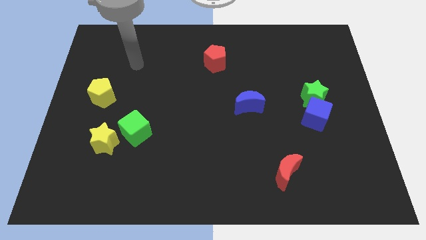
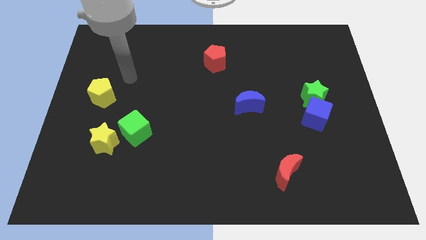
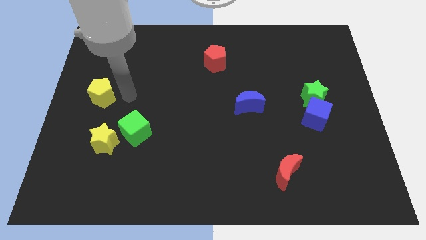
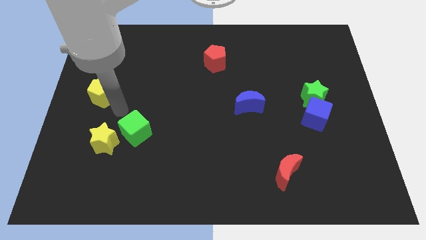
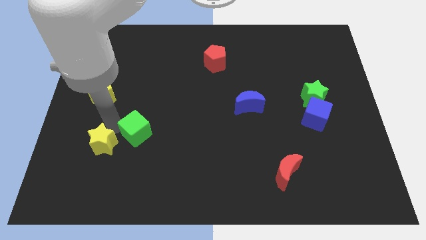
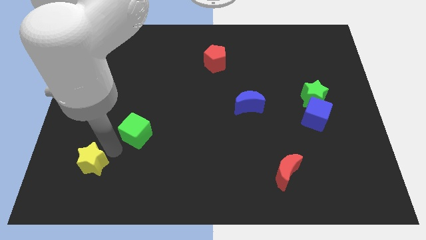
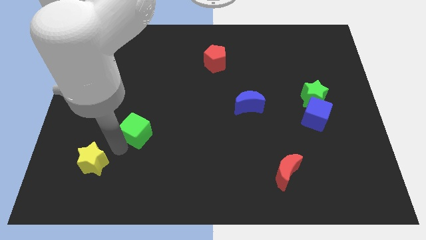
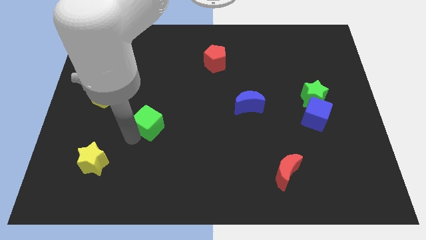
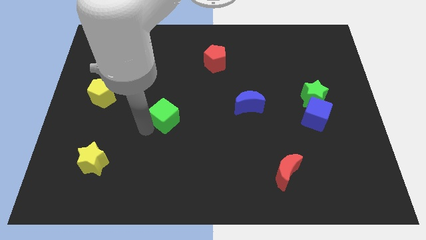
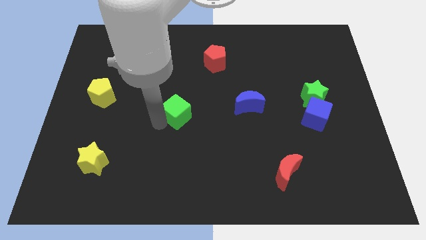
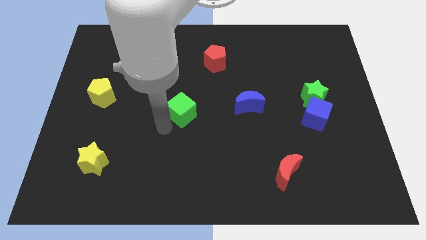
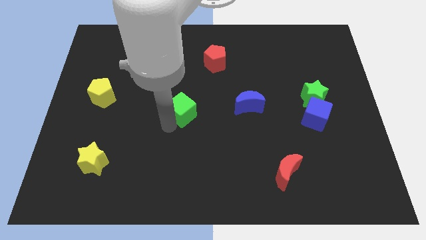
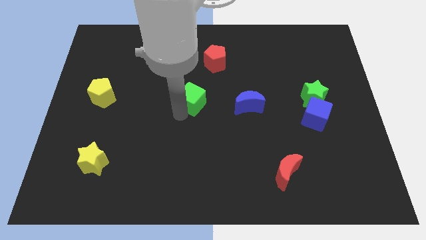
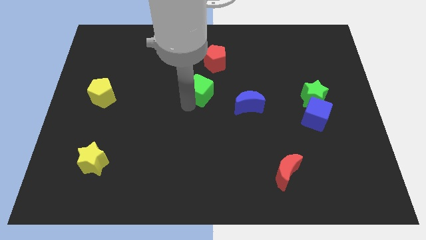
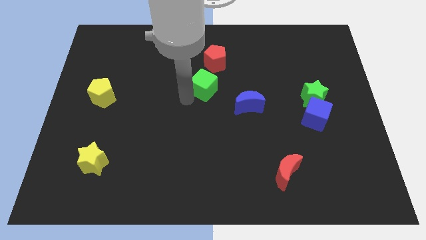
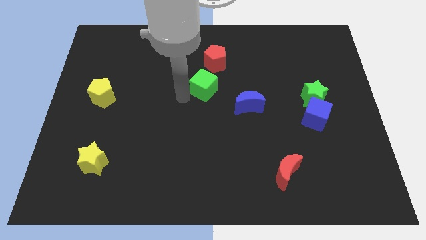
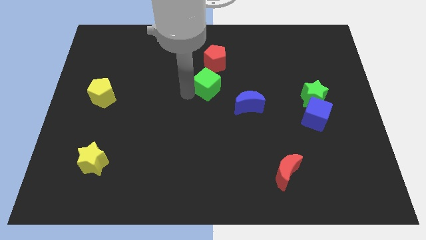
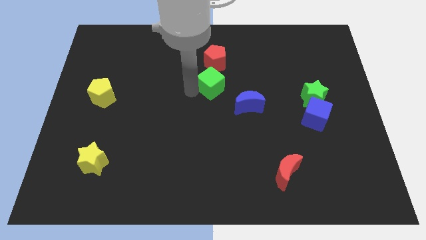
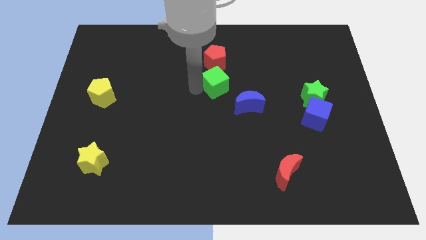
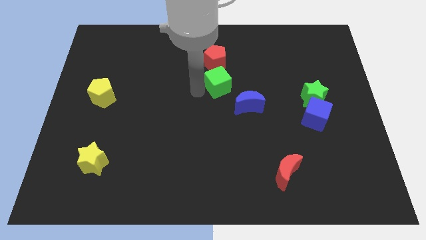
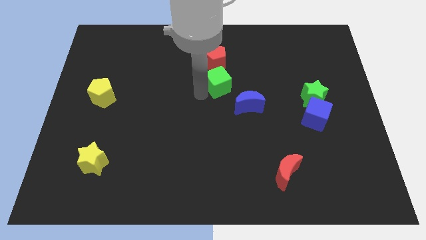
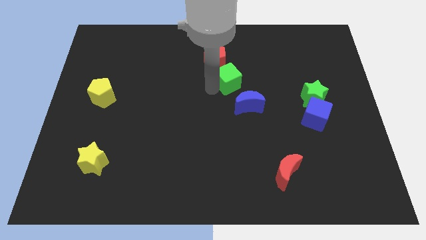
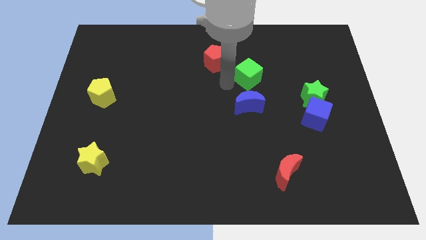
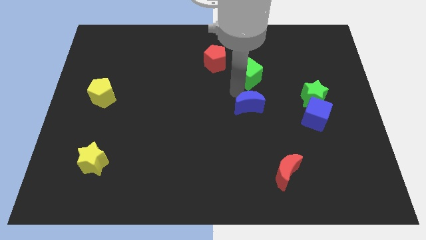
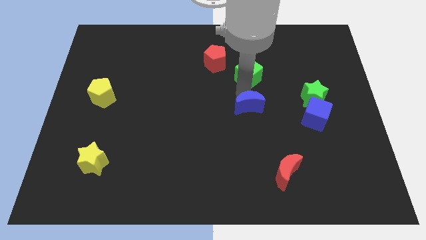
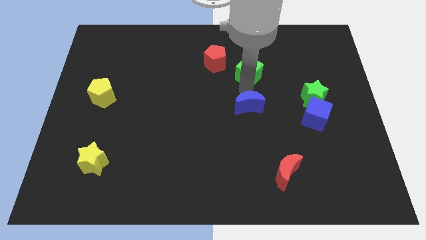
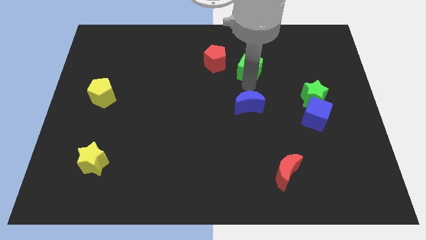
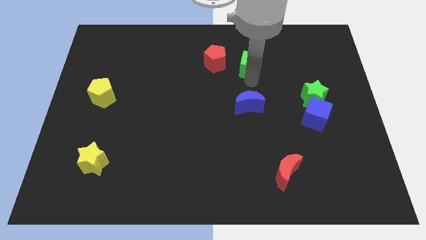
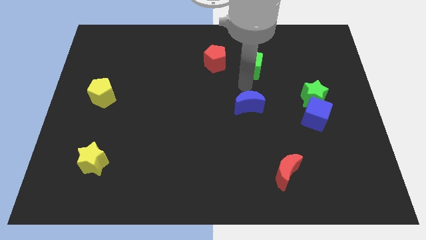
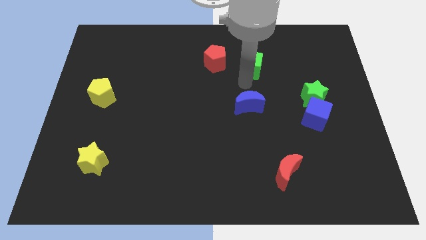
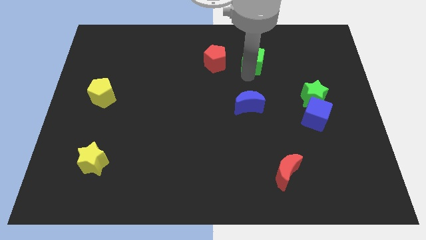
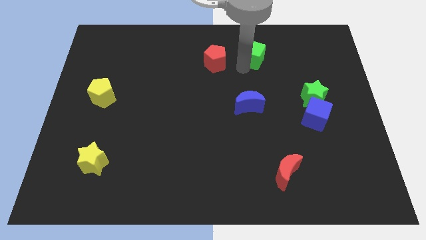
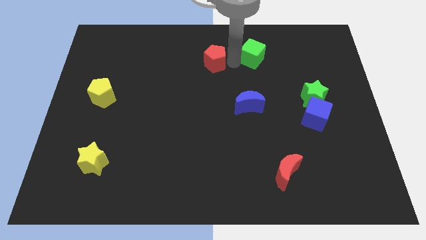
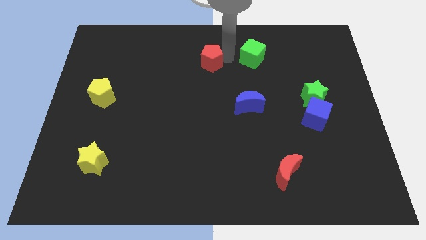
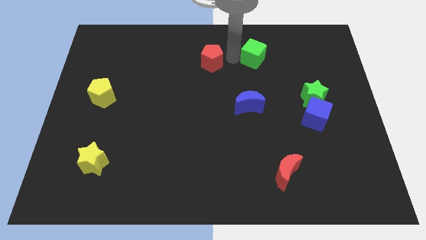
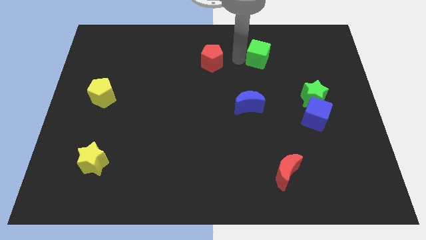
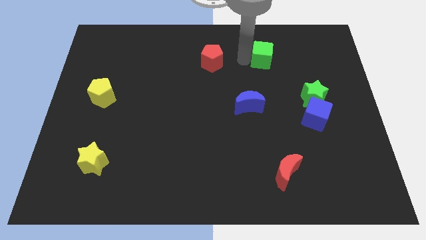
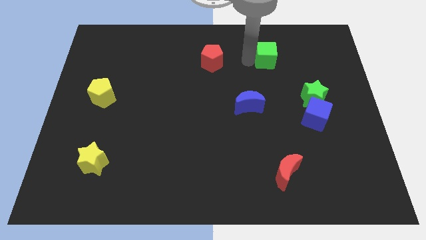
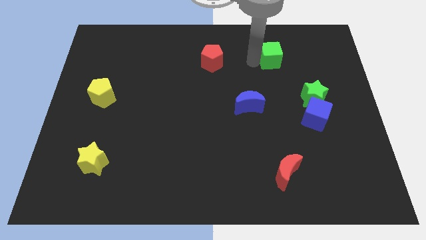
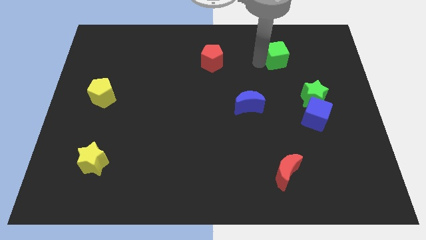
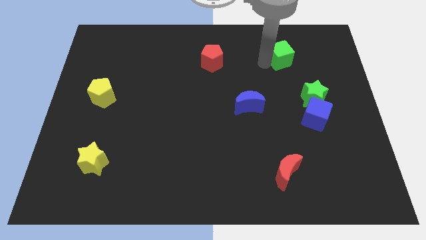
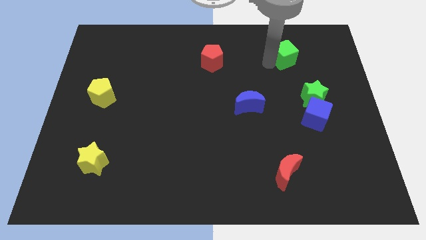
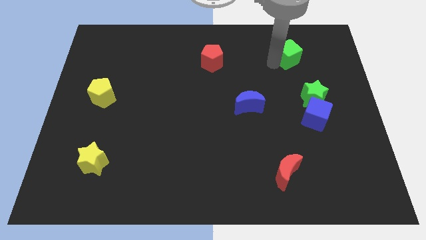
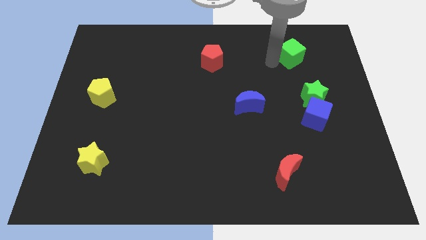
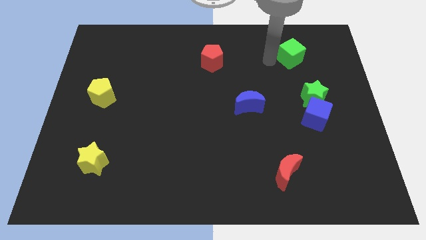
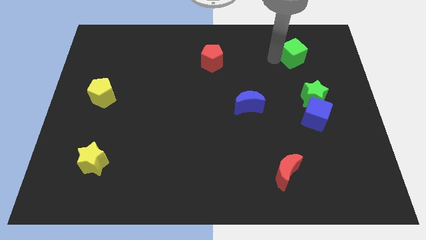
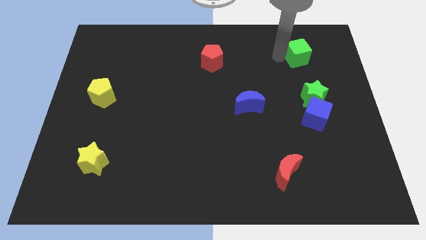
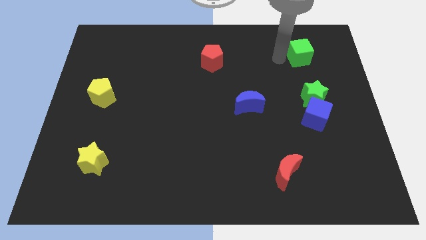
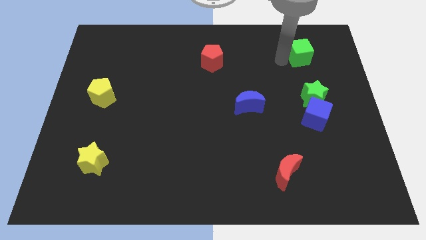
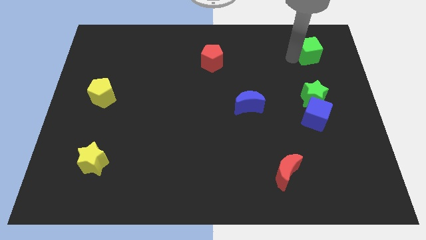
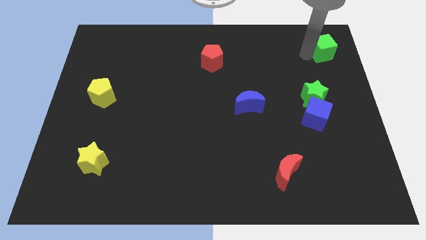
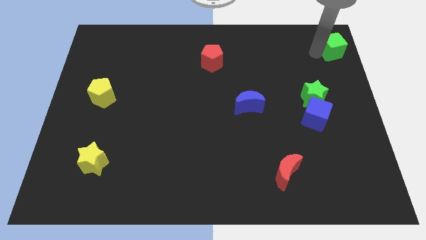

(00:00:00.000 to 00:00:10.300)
push the green cube to the top right corner

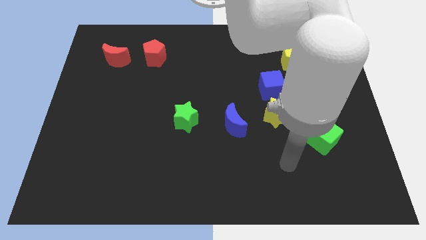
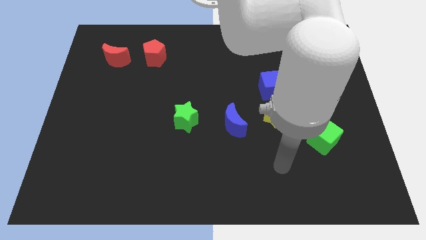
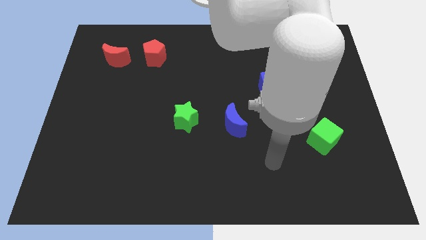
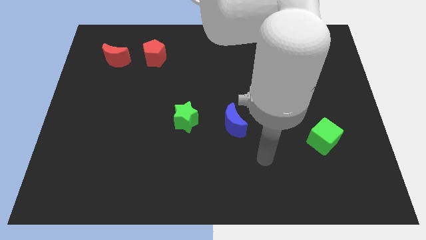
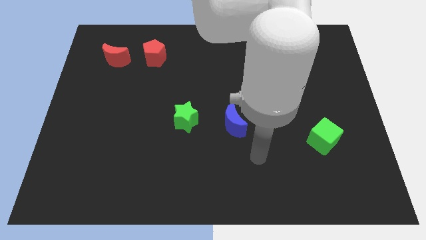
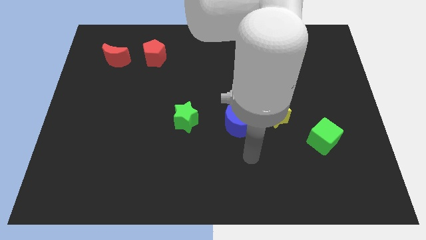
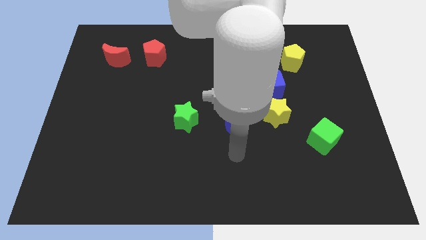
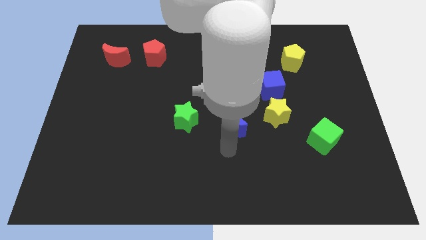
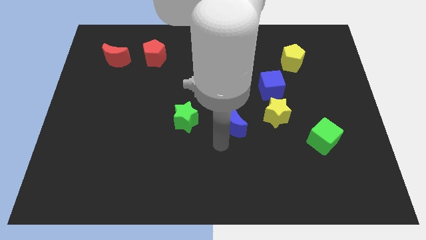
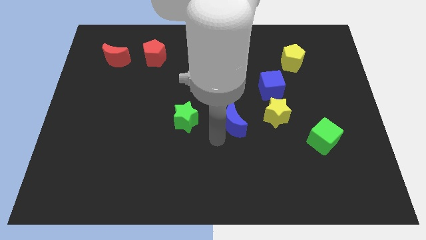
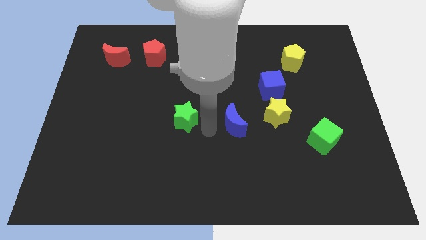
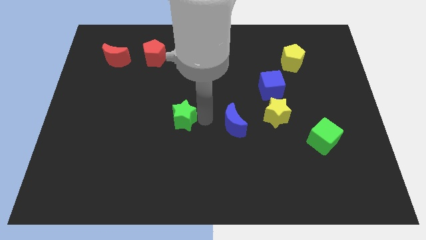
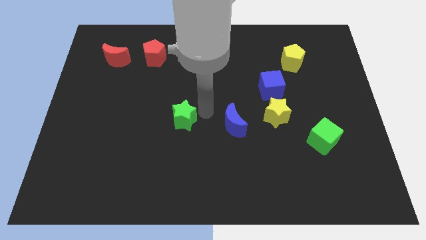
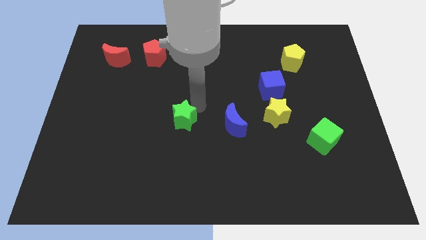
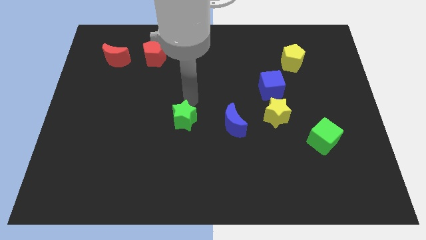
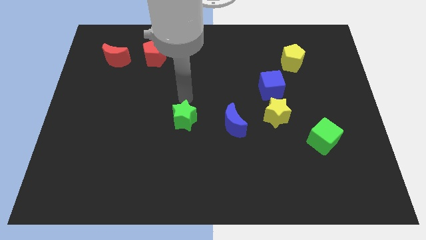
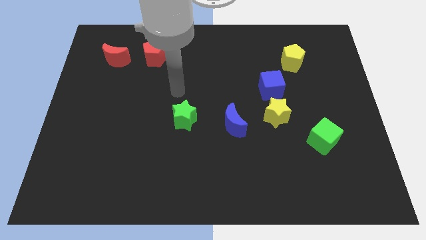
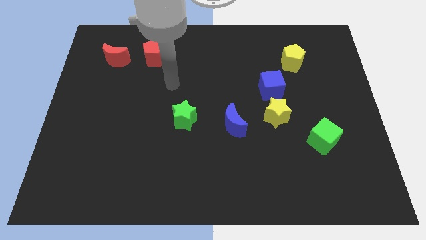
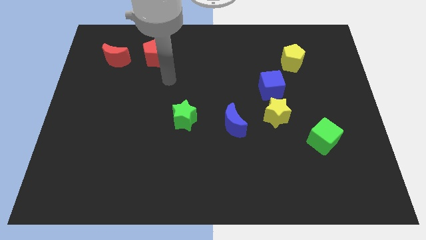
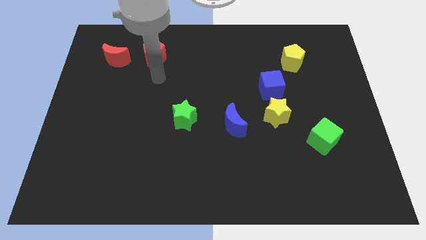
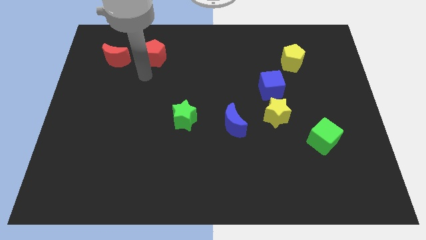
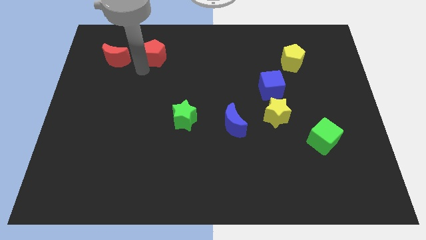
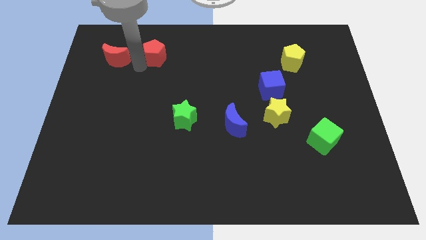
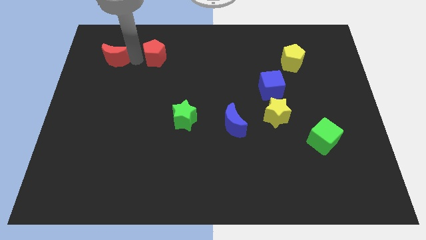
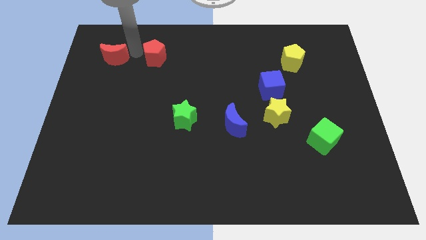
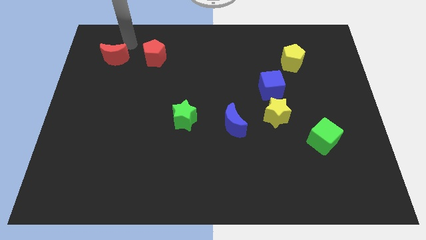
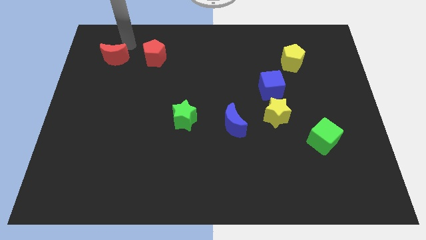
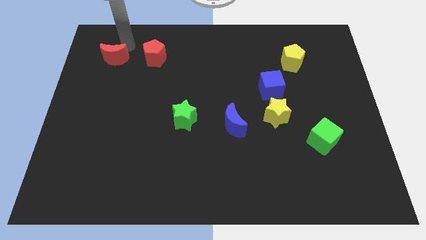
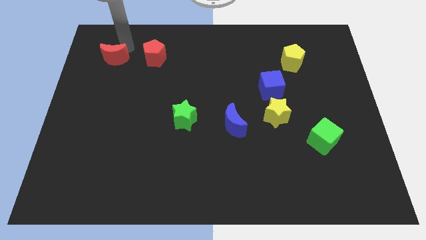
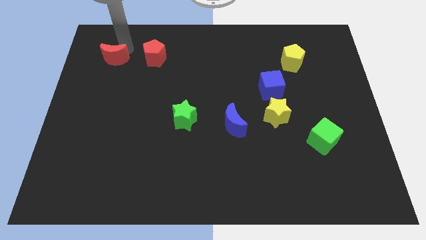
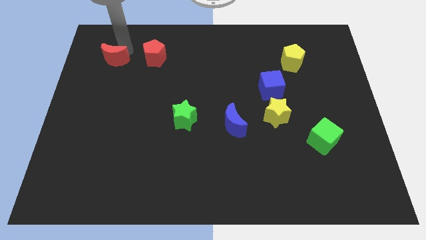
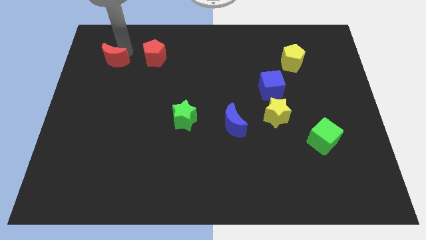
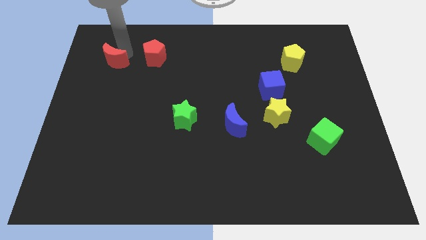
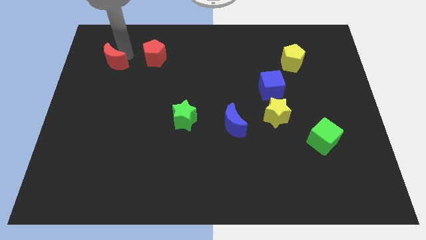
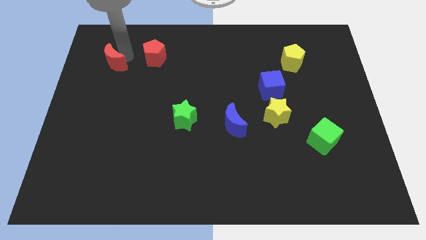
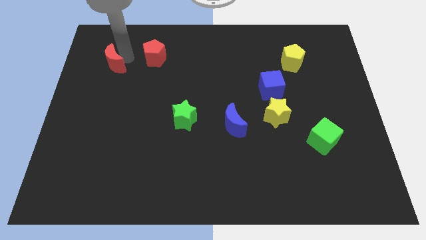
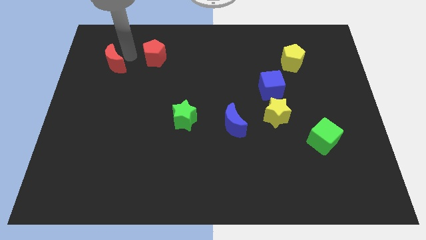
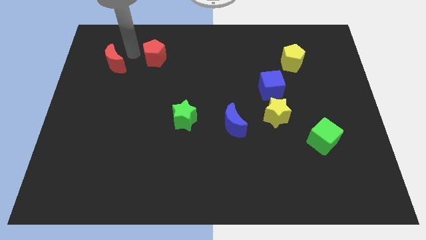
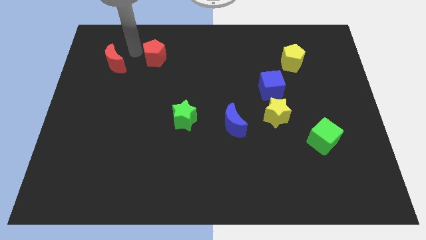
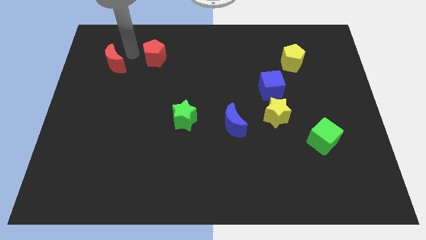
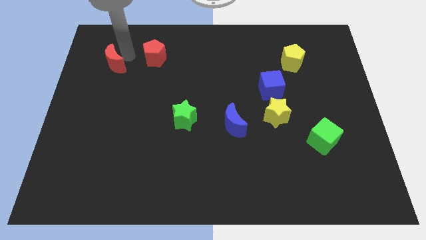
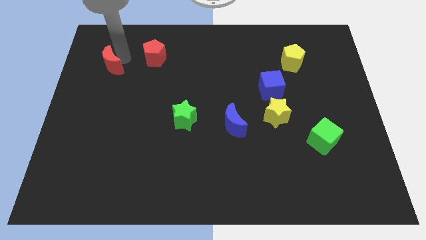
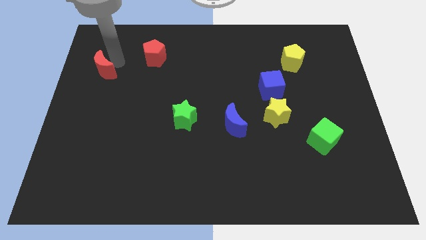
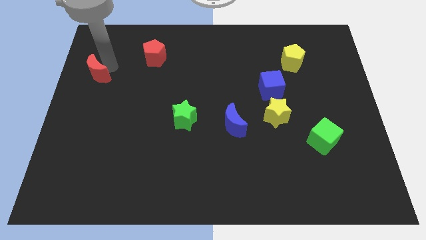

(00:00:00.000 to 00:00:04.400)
slide the red moon to the left side
